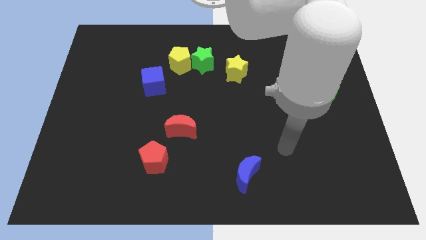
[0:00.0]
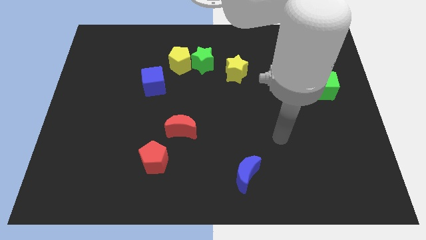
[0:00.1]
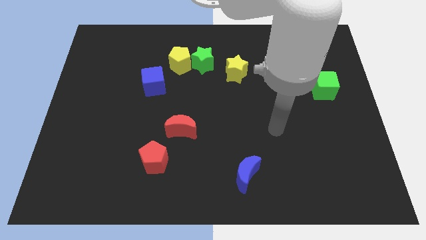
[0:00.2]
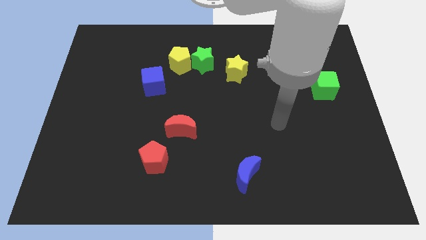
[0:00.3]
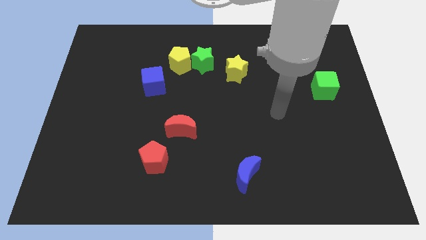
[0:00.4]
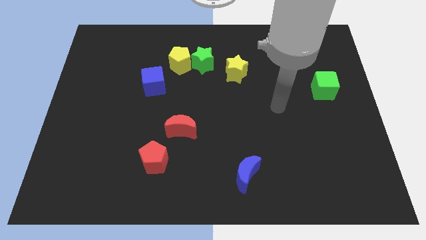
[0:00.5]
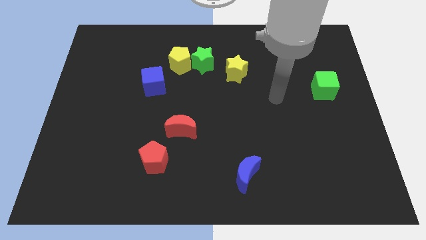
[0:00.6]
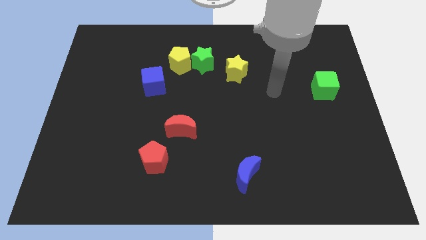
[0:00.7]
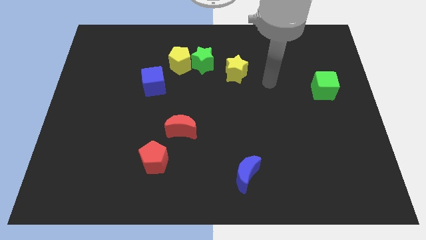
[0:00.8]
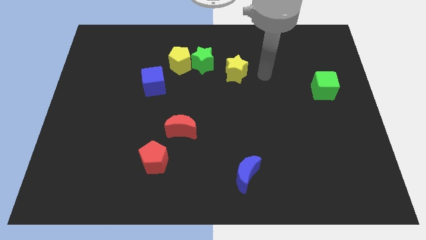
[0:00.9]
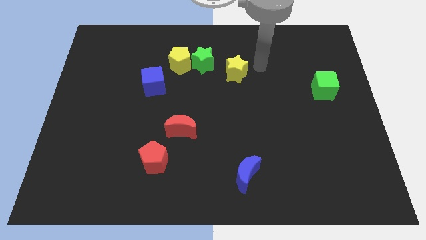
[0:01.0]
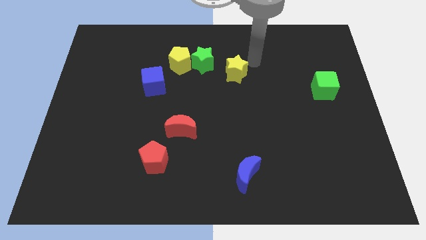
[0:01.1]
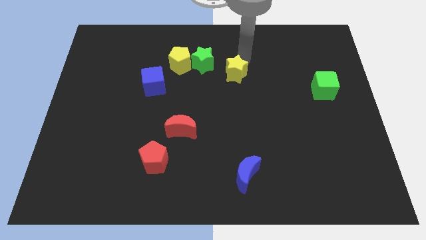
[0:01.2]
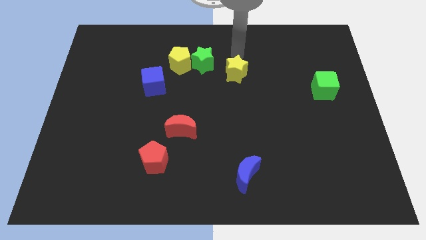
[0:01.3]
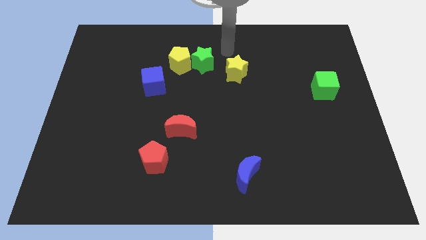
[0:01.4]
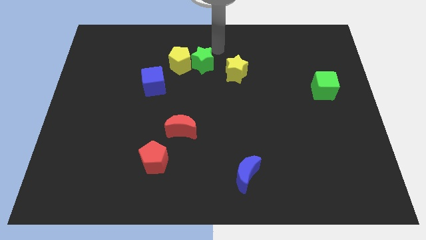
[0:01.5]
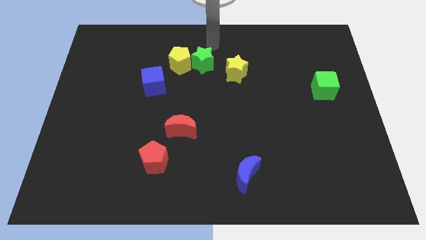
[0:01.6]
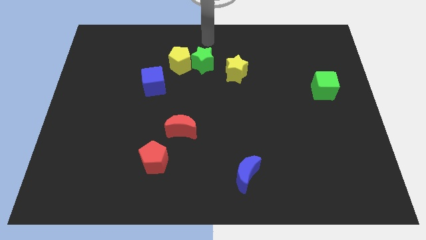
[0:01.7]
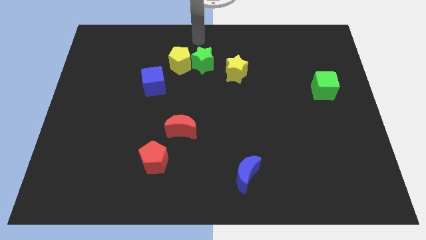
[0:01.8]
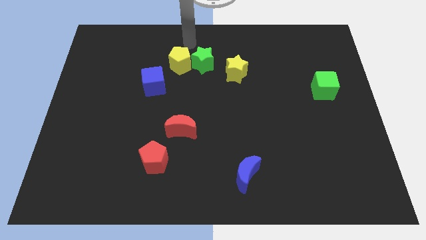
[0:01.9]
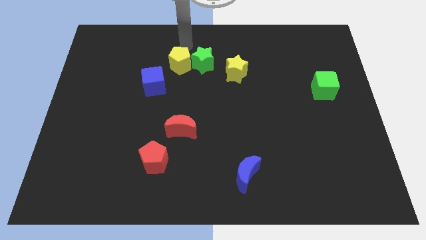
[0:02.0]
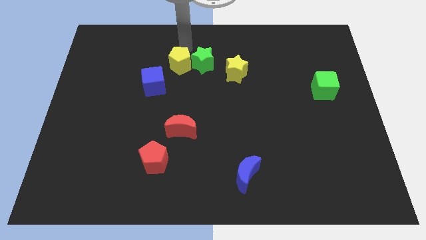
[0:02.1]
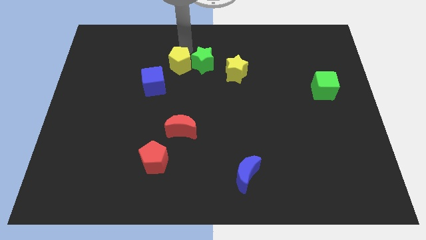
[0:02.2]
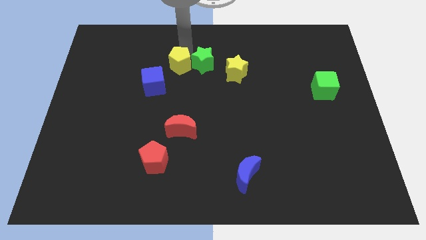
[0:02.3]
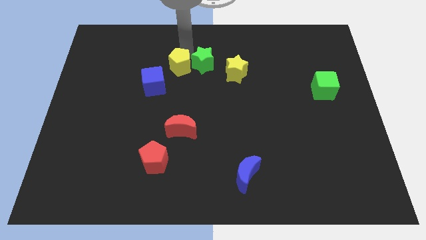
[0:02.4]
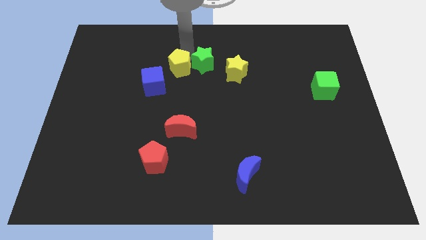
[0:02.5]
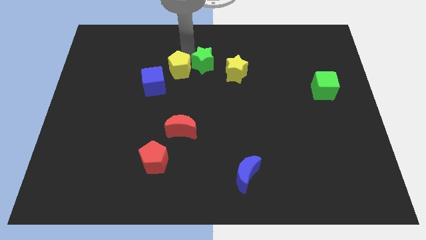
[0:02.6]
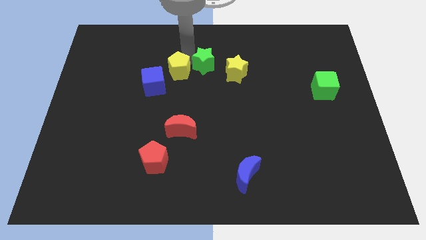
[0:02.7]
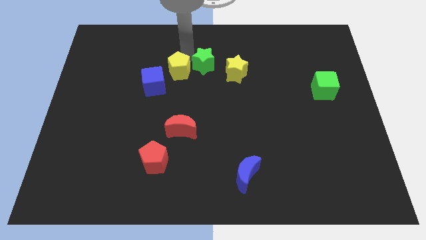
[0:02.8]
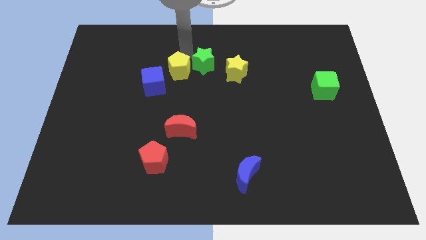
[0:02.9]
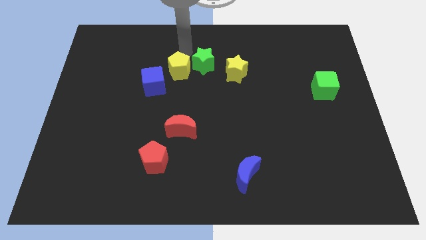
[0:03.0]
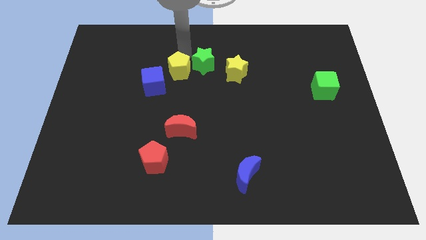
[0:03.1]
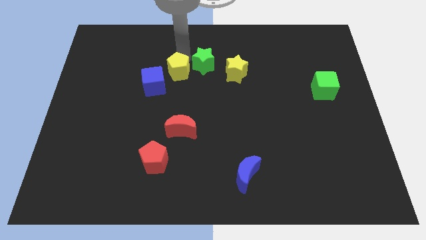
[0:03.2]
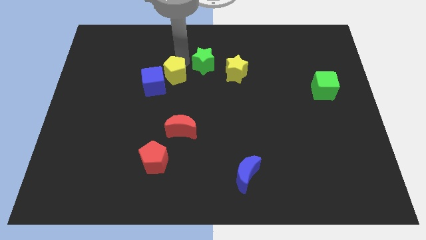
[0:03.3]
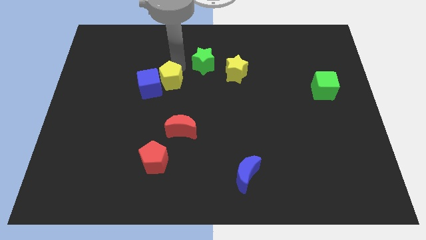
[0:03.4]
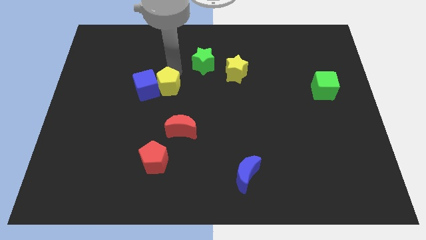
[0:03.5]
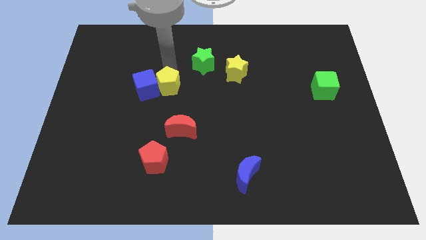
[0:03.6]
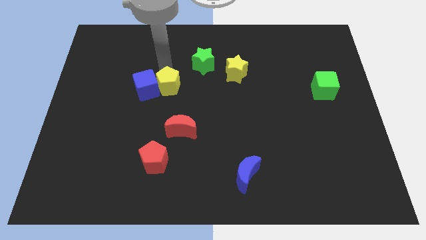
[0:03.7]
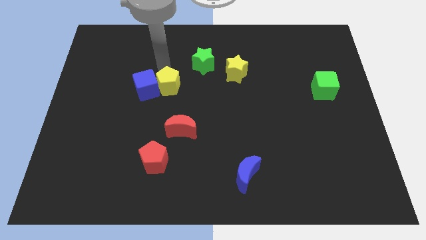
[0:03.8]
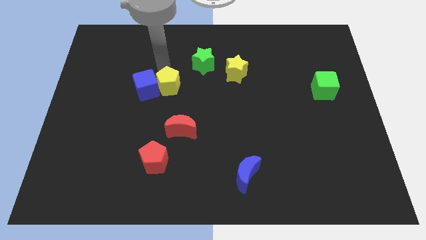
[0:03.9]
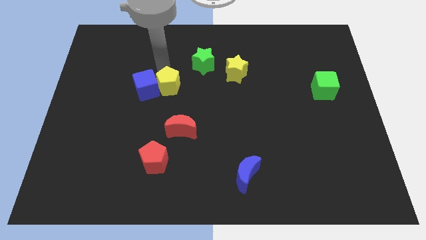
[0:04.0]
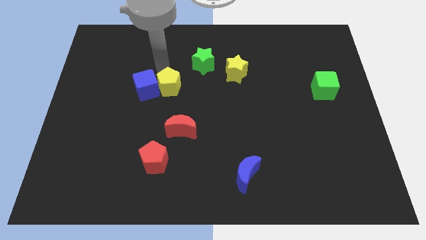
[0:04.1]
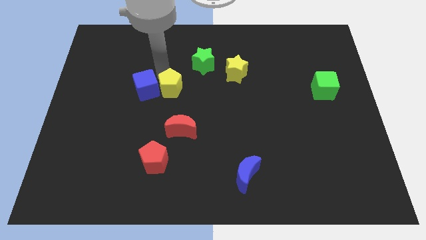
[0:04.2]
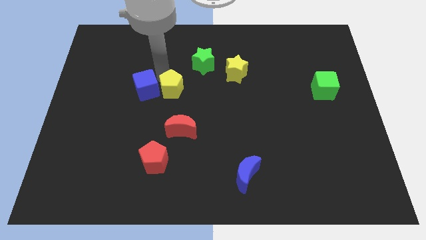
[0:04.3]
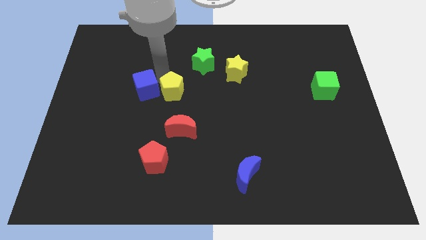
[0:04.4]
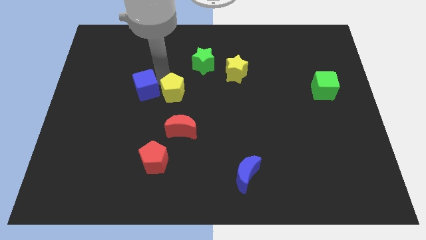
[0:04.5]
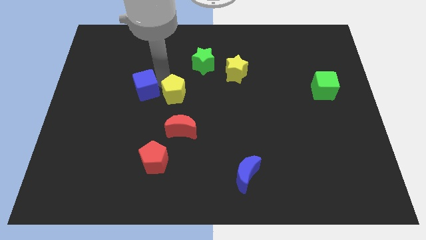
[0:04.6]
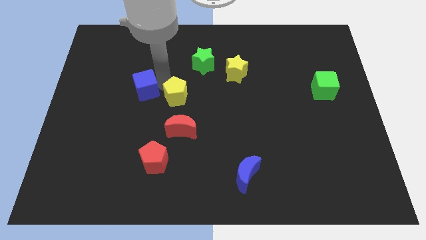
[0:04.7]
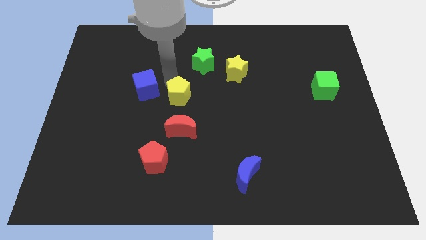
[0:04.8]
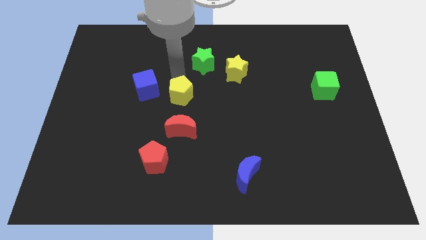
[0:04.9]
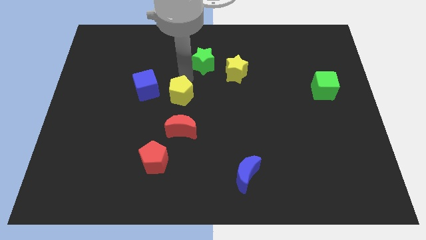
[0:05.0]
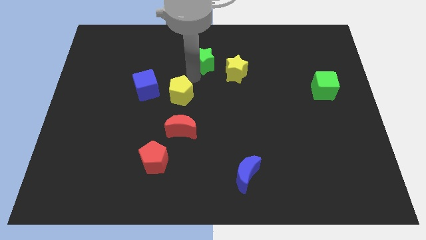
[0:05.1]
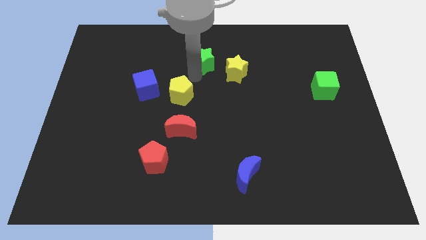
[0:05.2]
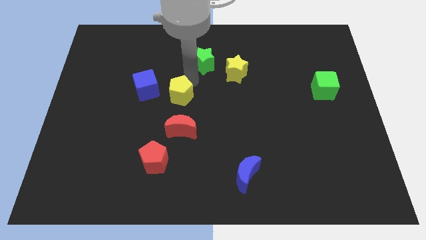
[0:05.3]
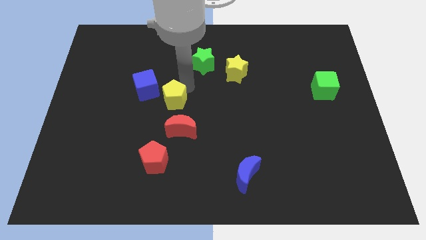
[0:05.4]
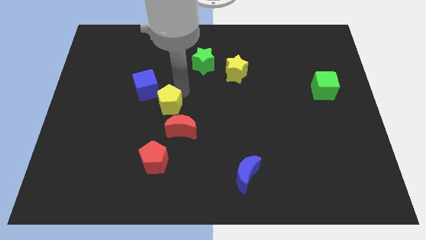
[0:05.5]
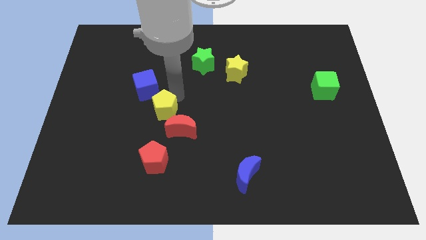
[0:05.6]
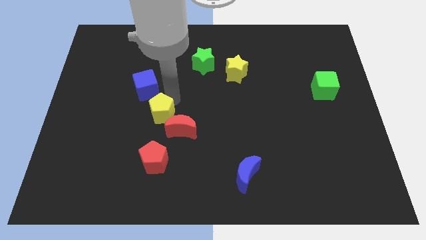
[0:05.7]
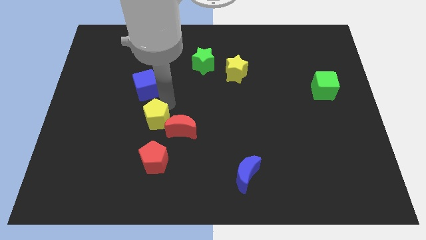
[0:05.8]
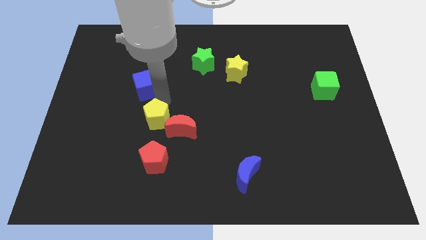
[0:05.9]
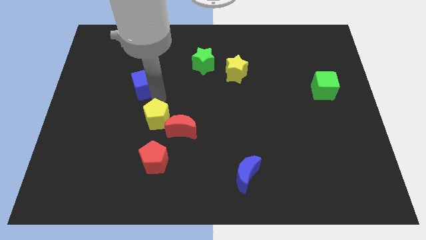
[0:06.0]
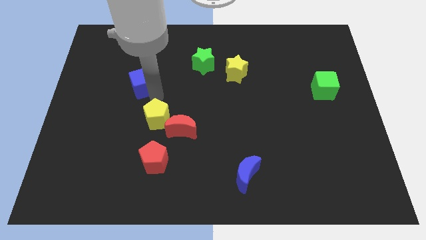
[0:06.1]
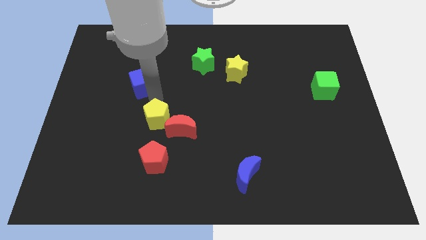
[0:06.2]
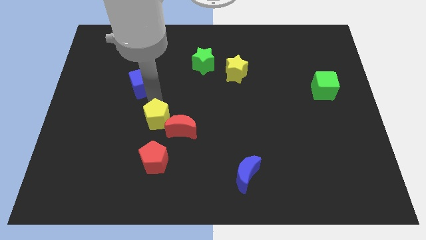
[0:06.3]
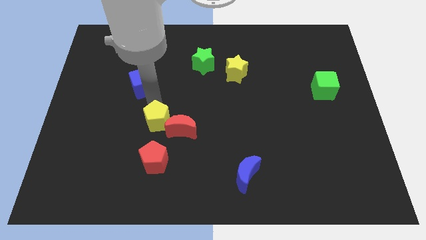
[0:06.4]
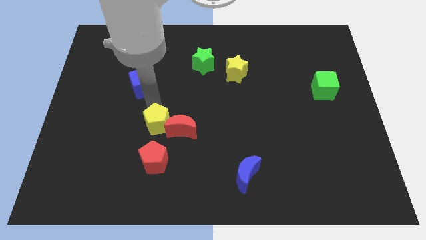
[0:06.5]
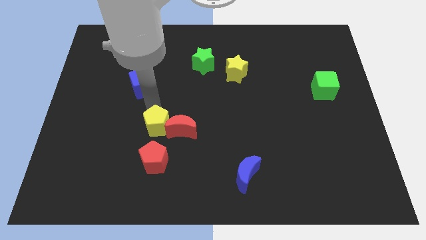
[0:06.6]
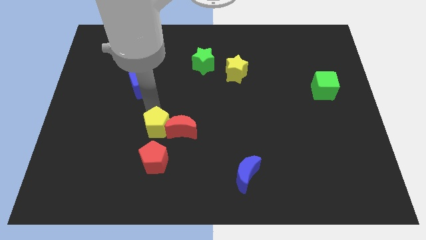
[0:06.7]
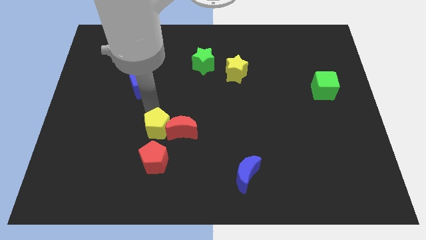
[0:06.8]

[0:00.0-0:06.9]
push the yellow pentagon down

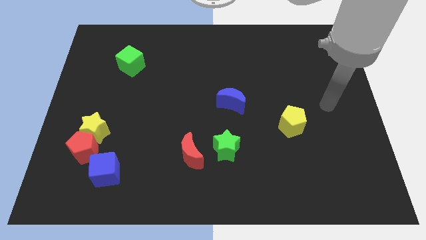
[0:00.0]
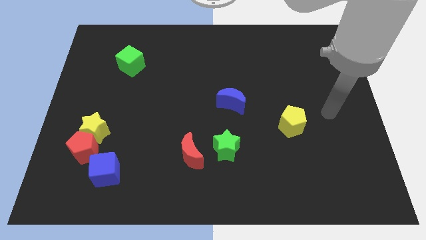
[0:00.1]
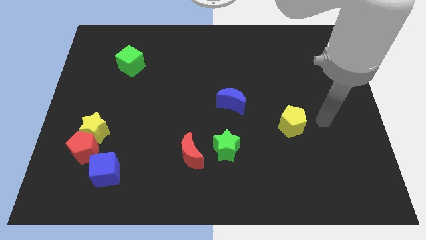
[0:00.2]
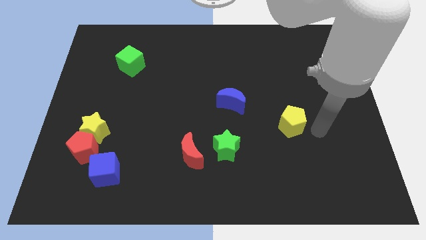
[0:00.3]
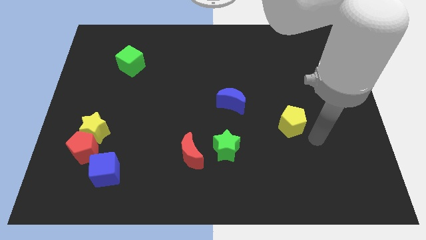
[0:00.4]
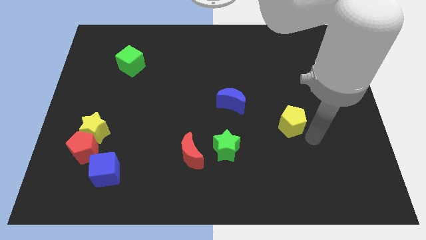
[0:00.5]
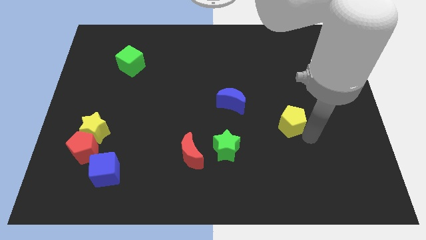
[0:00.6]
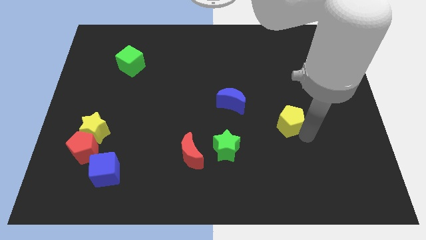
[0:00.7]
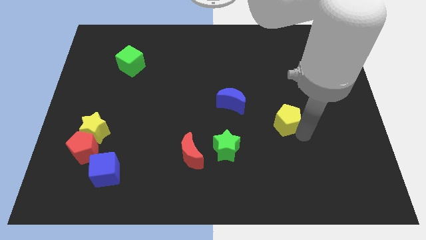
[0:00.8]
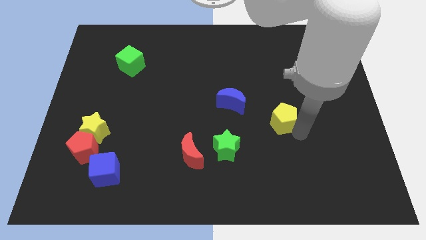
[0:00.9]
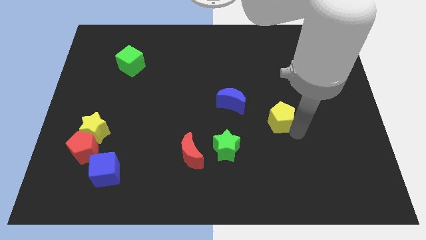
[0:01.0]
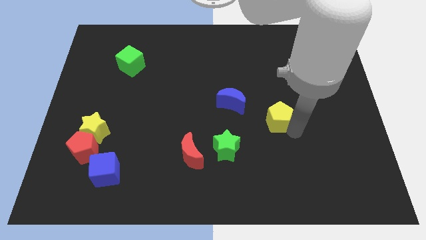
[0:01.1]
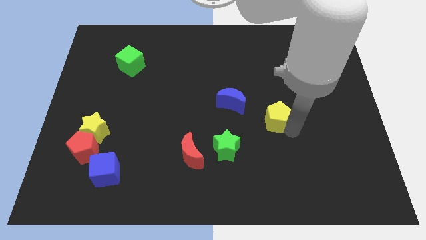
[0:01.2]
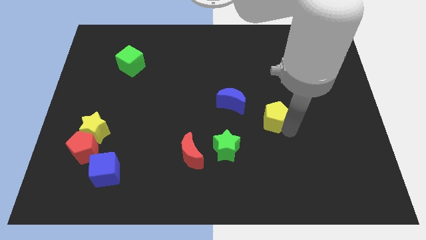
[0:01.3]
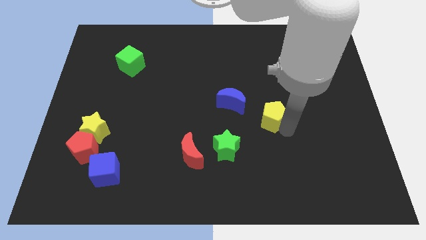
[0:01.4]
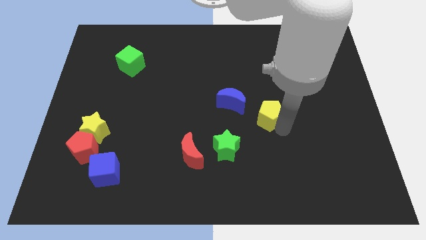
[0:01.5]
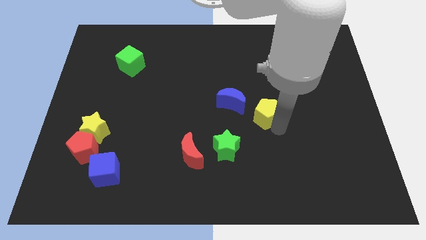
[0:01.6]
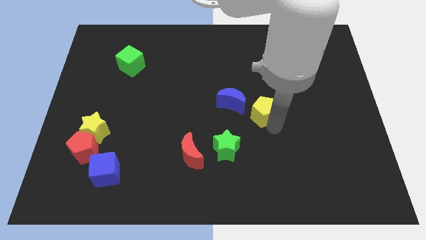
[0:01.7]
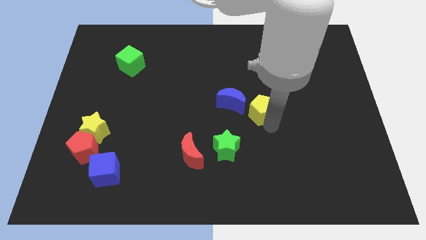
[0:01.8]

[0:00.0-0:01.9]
move the yellow pentagon up and to the left a little
